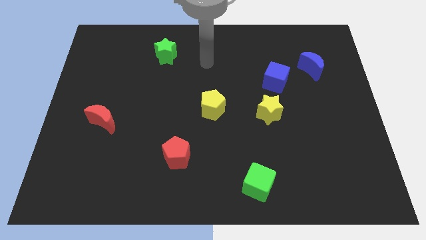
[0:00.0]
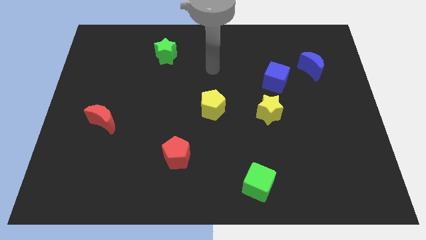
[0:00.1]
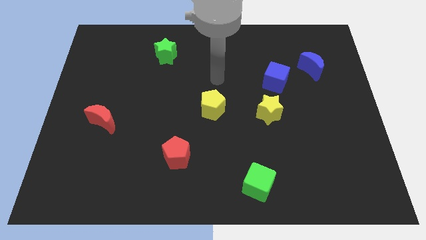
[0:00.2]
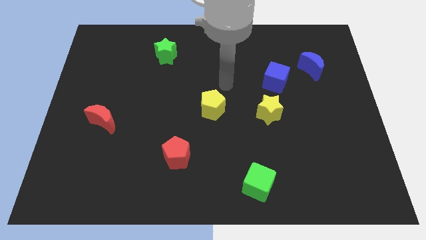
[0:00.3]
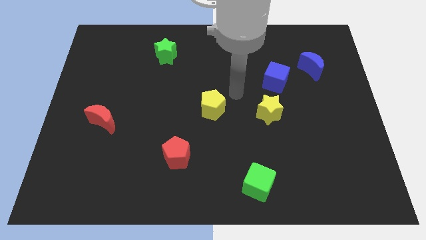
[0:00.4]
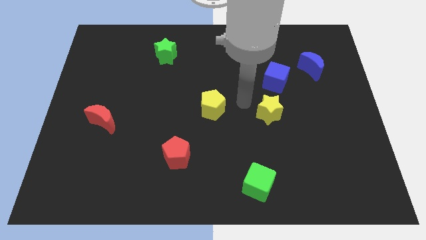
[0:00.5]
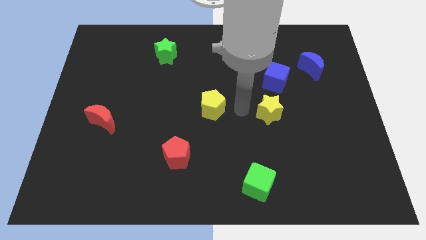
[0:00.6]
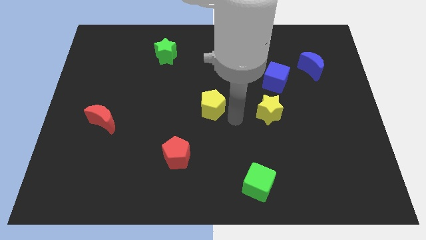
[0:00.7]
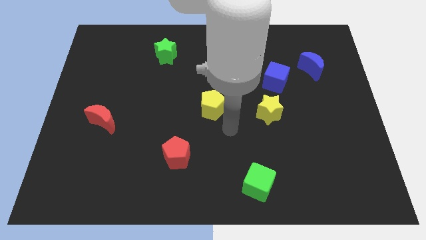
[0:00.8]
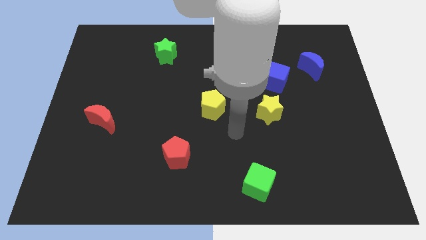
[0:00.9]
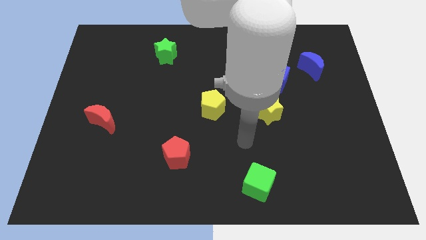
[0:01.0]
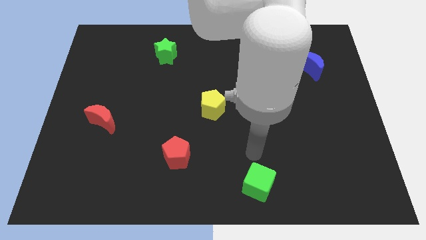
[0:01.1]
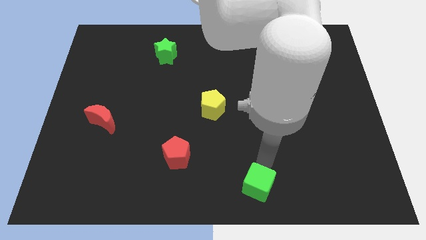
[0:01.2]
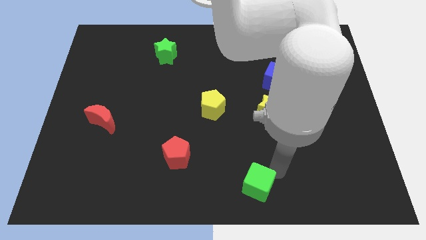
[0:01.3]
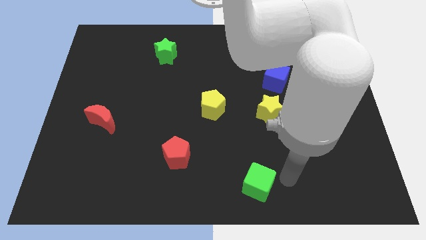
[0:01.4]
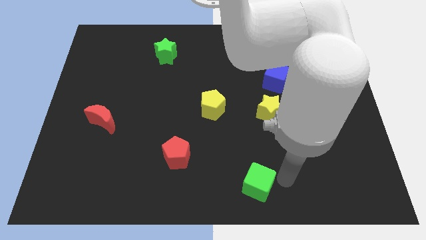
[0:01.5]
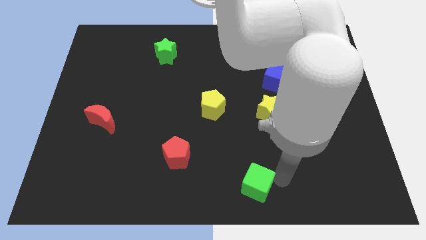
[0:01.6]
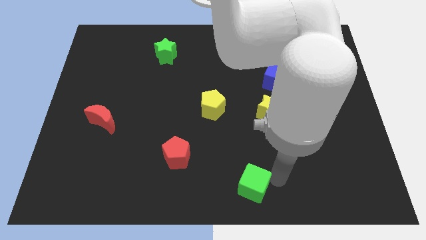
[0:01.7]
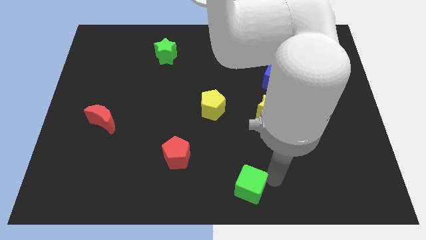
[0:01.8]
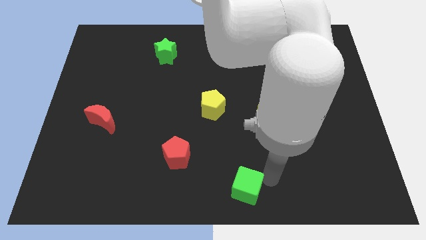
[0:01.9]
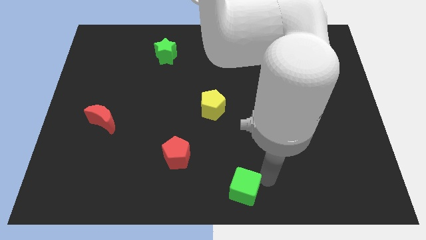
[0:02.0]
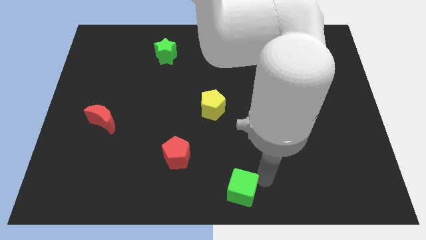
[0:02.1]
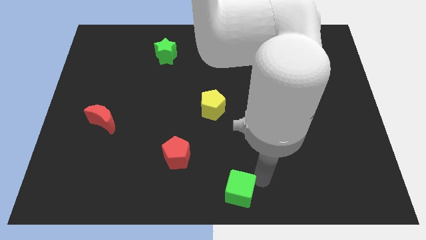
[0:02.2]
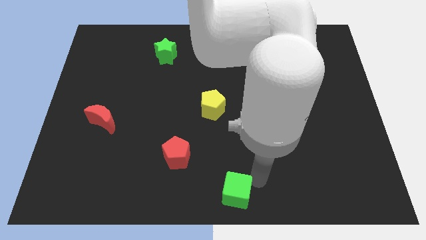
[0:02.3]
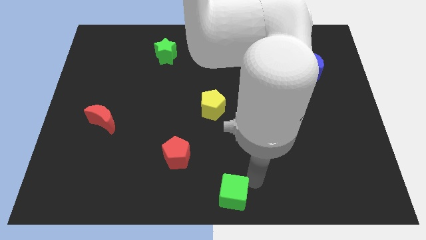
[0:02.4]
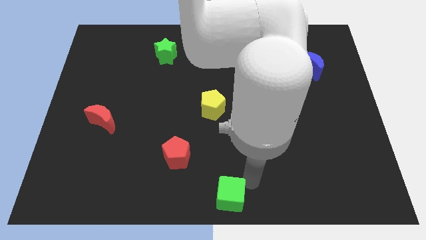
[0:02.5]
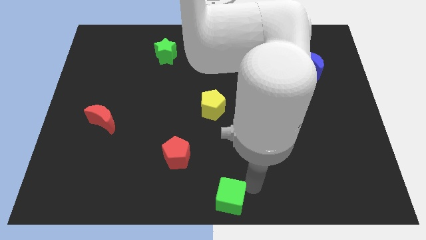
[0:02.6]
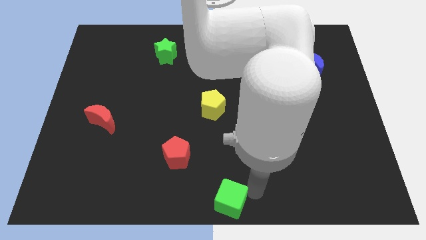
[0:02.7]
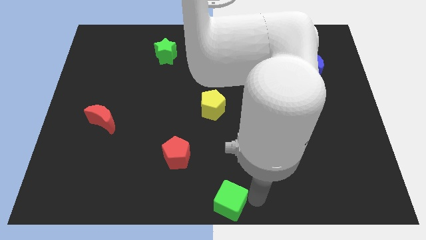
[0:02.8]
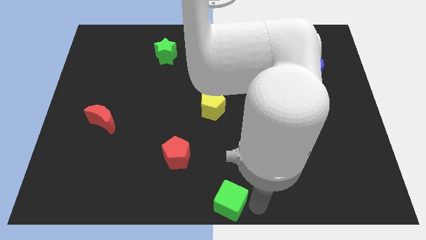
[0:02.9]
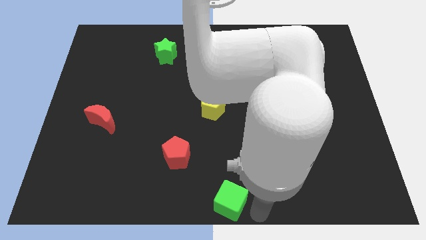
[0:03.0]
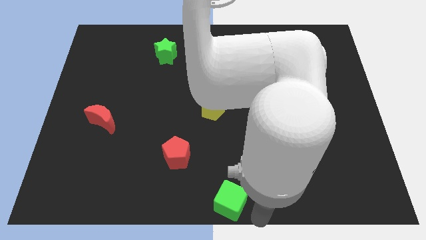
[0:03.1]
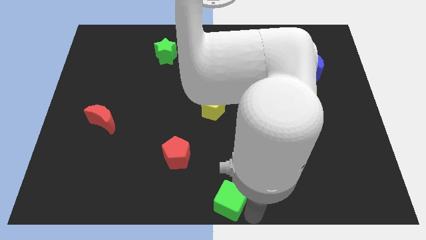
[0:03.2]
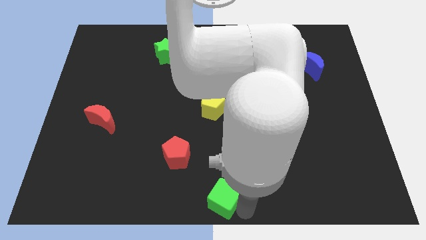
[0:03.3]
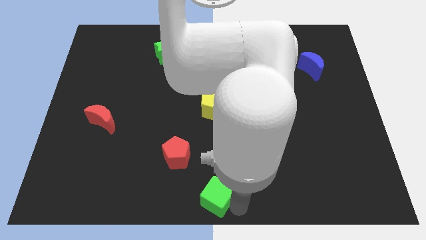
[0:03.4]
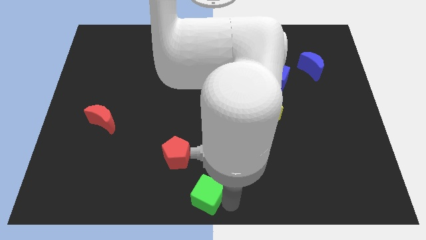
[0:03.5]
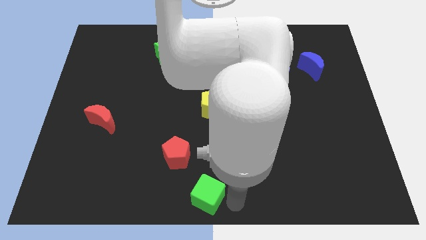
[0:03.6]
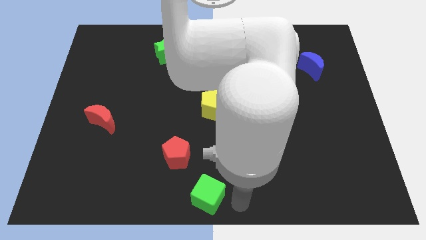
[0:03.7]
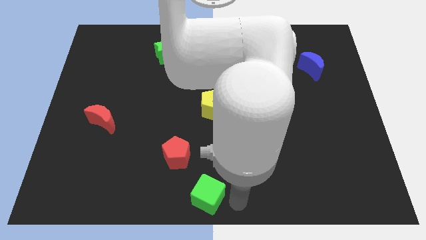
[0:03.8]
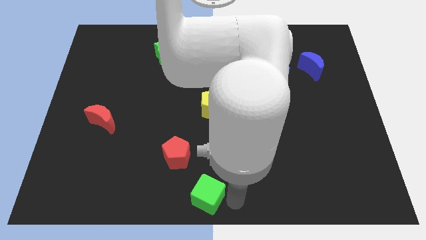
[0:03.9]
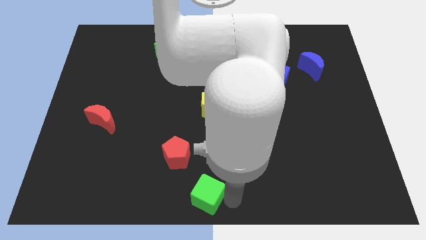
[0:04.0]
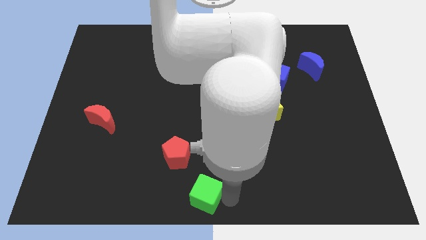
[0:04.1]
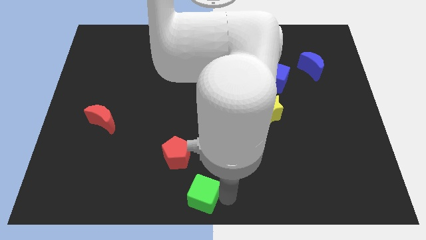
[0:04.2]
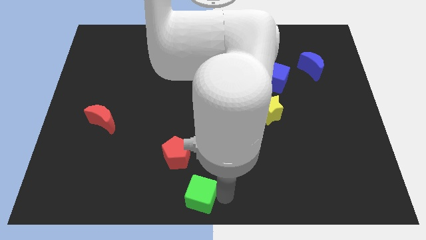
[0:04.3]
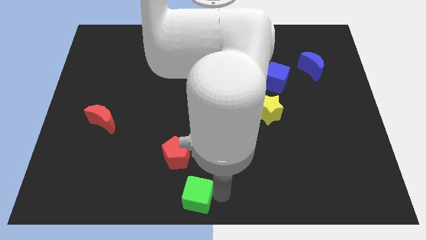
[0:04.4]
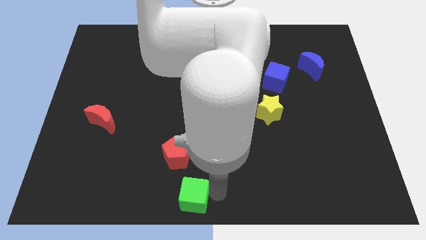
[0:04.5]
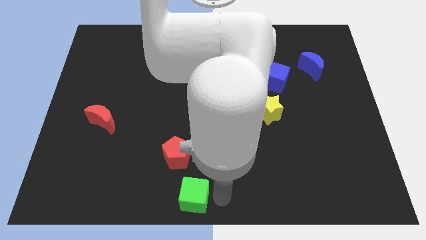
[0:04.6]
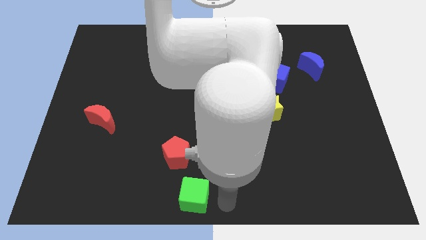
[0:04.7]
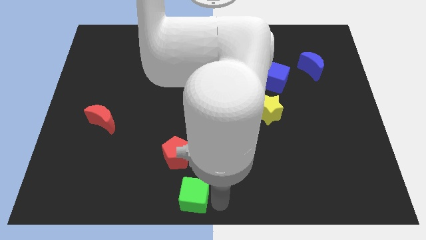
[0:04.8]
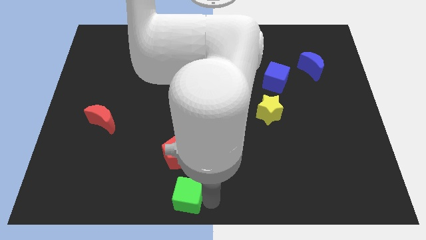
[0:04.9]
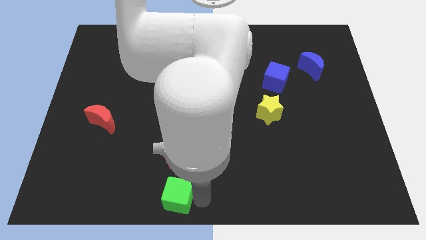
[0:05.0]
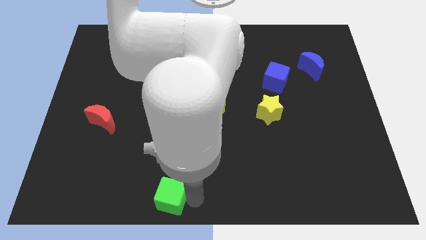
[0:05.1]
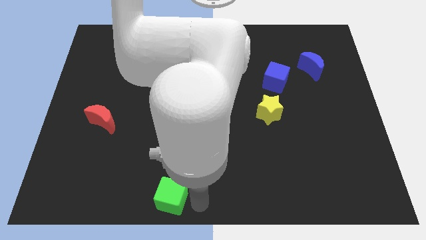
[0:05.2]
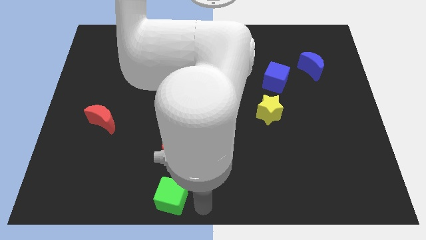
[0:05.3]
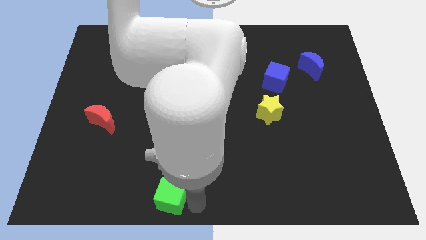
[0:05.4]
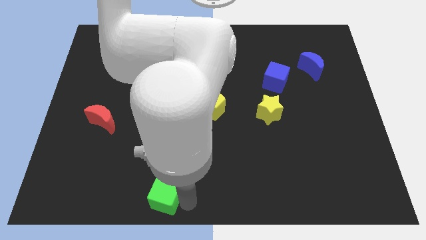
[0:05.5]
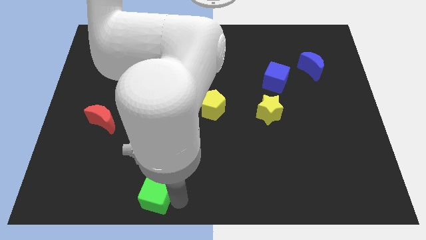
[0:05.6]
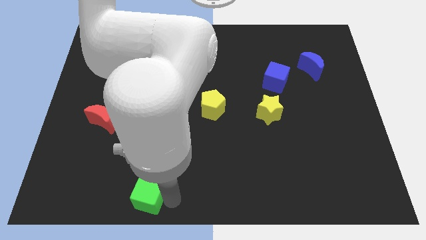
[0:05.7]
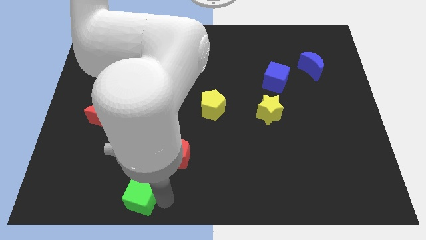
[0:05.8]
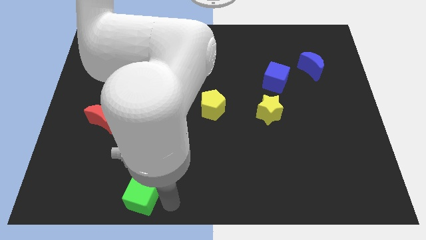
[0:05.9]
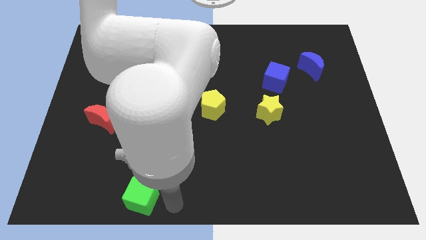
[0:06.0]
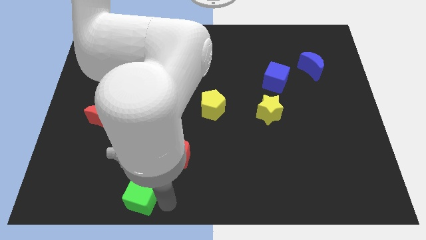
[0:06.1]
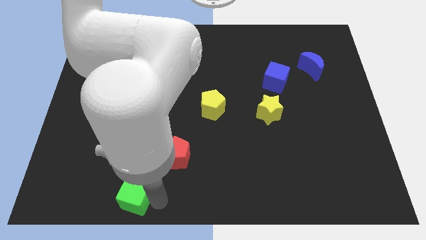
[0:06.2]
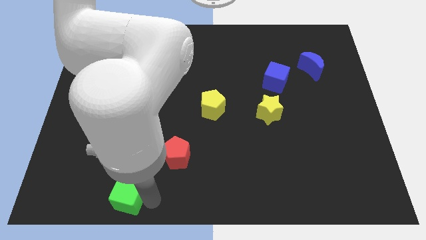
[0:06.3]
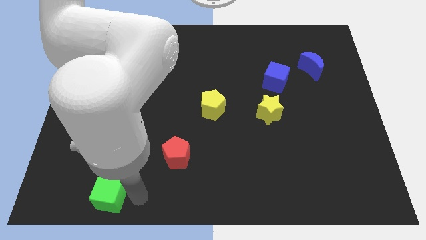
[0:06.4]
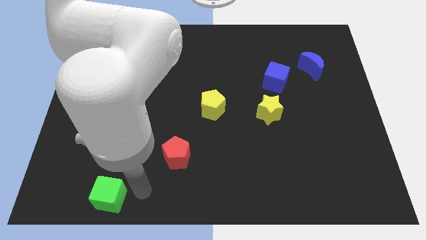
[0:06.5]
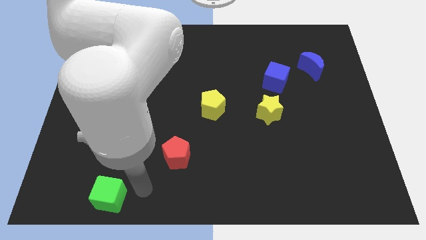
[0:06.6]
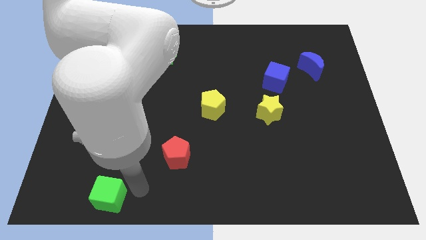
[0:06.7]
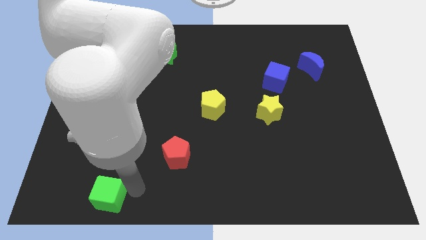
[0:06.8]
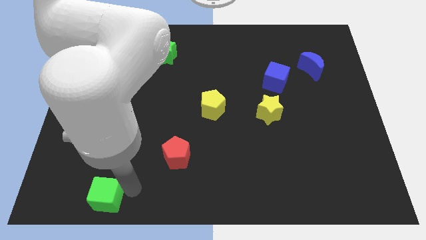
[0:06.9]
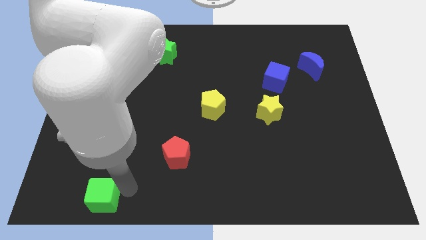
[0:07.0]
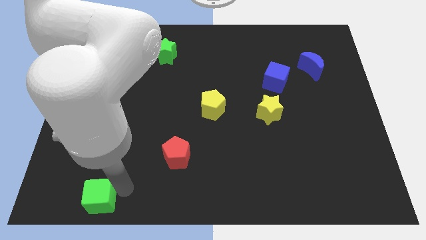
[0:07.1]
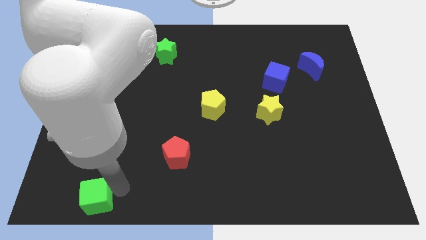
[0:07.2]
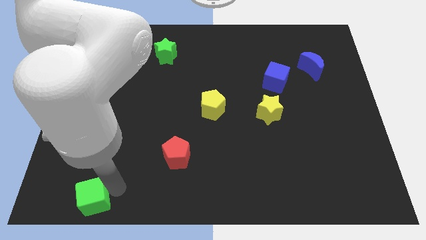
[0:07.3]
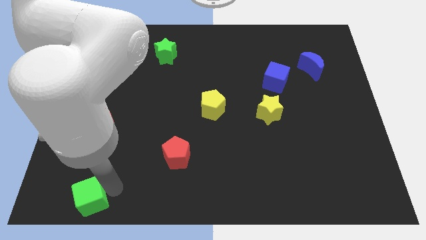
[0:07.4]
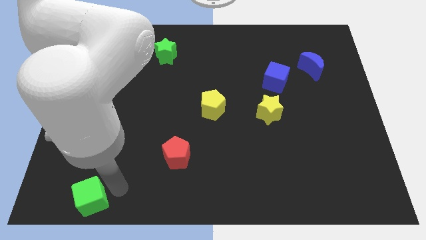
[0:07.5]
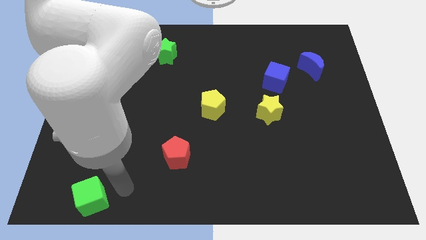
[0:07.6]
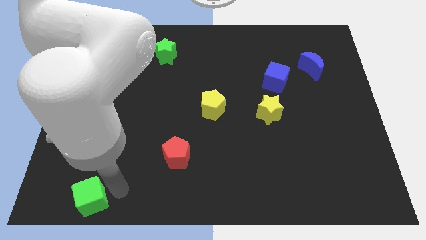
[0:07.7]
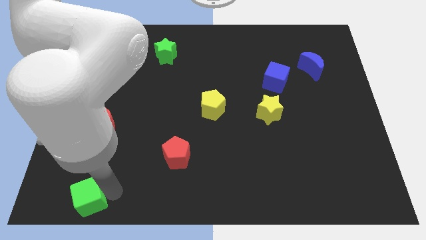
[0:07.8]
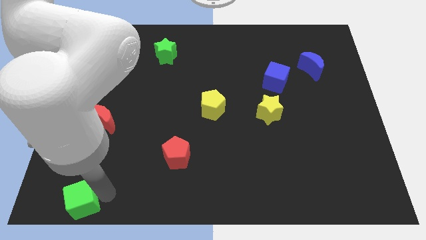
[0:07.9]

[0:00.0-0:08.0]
move the green cube to the lower left corner
